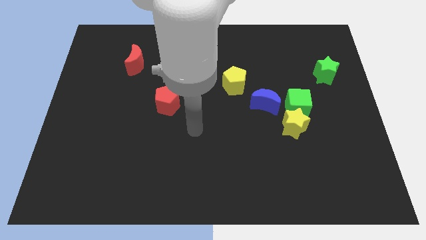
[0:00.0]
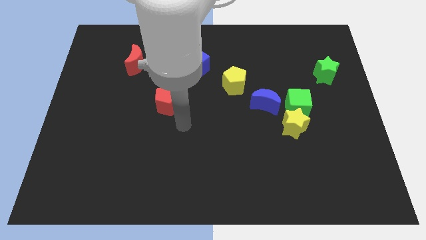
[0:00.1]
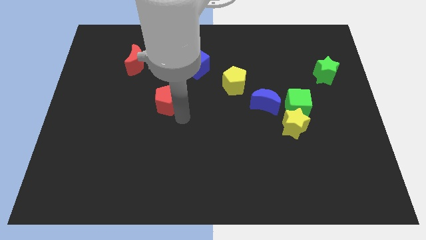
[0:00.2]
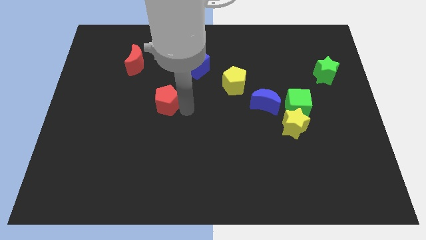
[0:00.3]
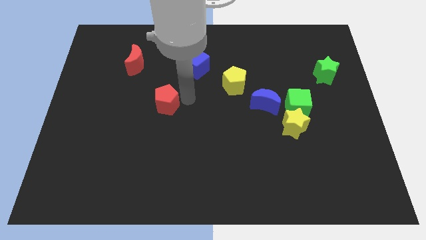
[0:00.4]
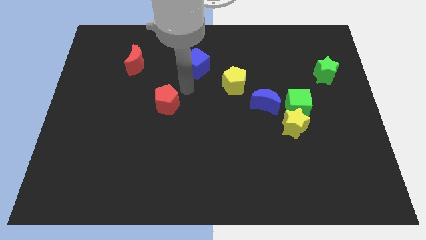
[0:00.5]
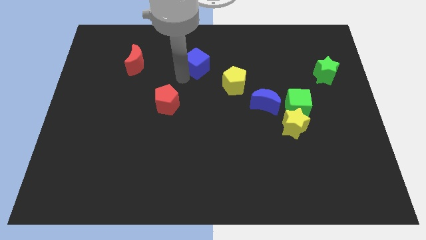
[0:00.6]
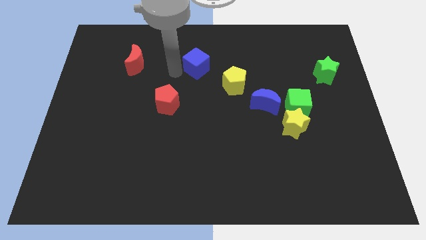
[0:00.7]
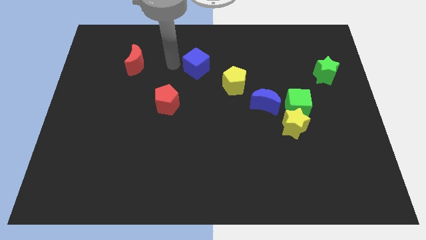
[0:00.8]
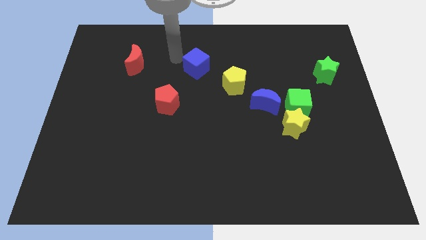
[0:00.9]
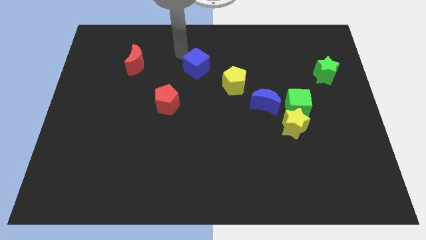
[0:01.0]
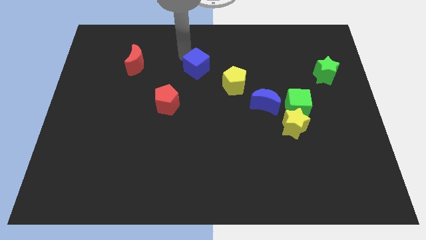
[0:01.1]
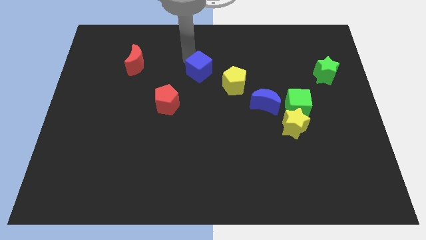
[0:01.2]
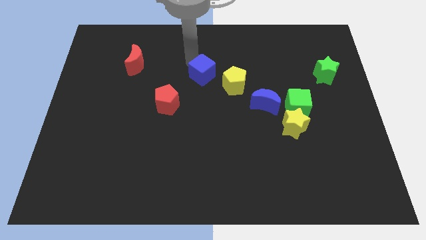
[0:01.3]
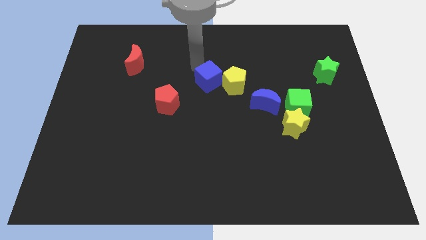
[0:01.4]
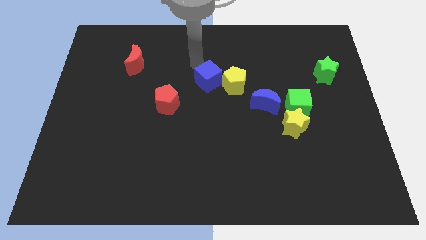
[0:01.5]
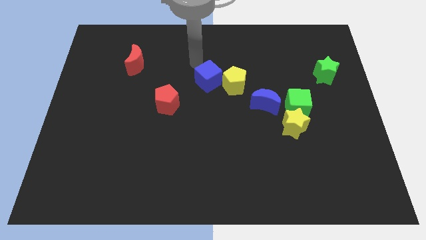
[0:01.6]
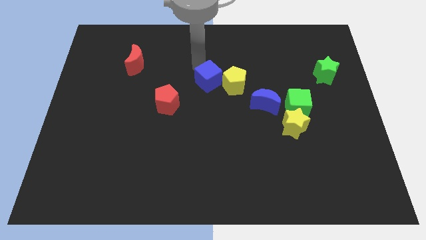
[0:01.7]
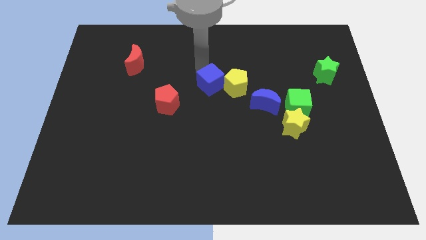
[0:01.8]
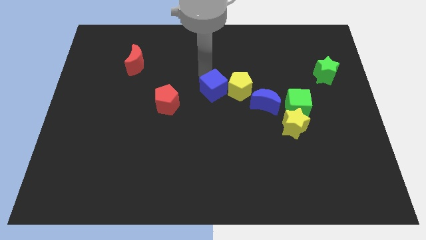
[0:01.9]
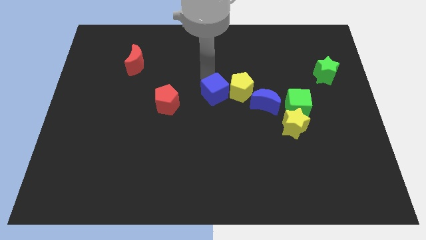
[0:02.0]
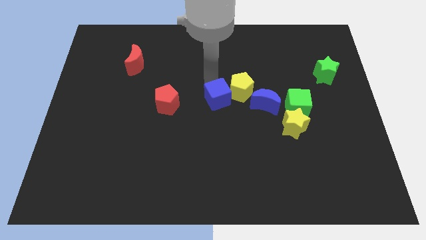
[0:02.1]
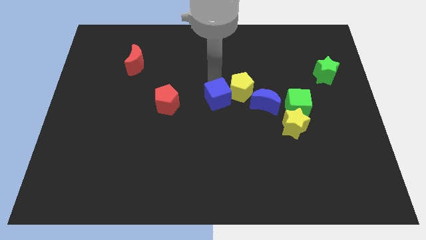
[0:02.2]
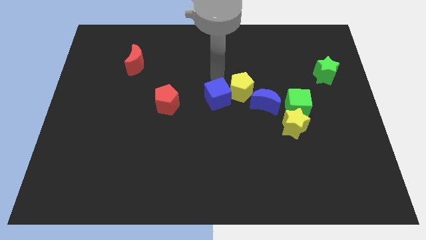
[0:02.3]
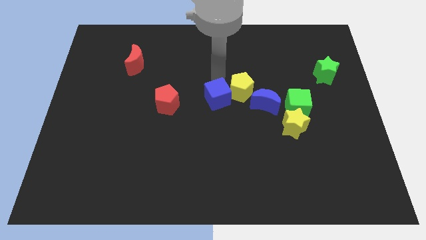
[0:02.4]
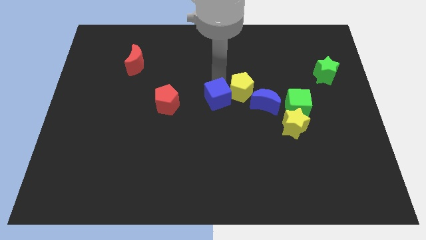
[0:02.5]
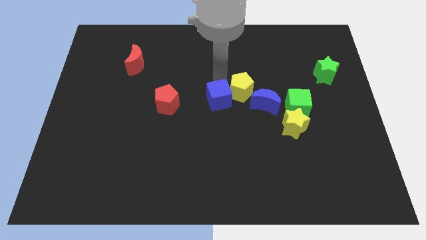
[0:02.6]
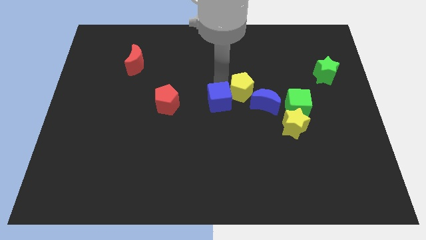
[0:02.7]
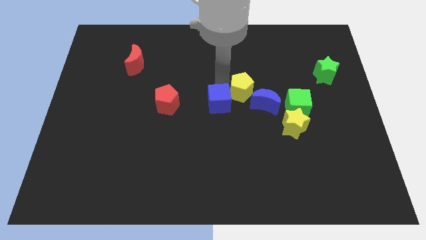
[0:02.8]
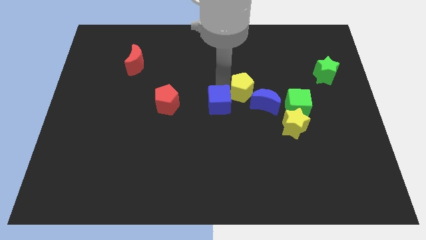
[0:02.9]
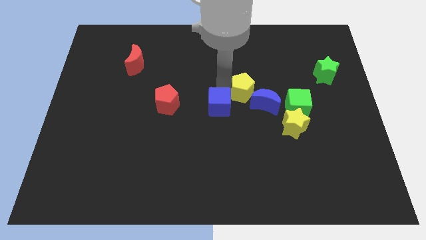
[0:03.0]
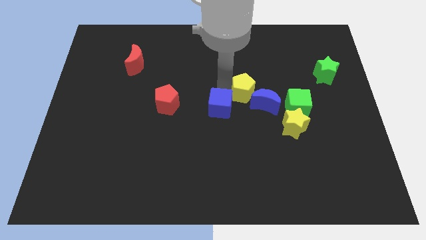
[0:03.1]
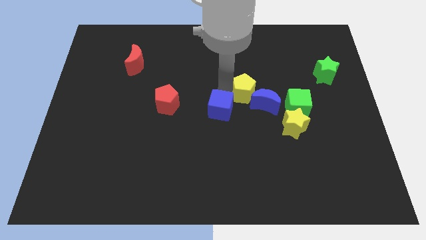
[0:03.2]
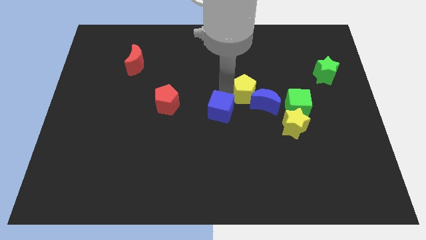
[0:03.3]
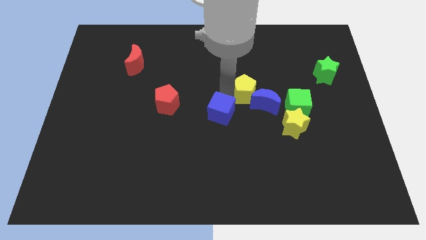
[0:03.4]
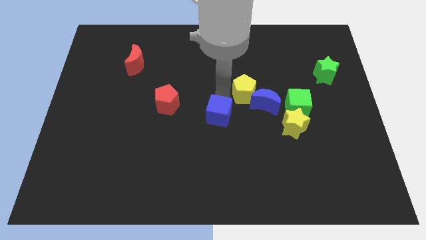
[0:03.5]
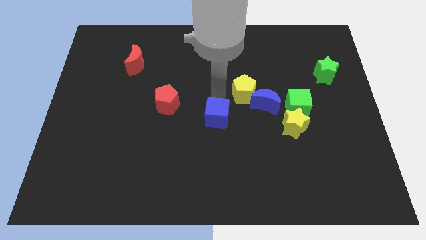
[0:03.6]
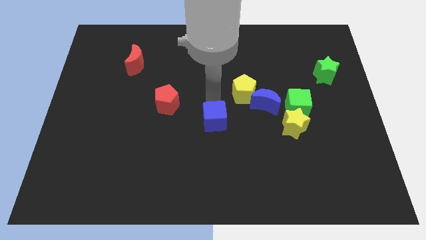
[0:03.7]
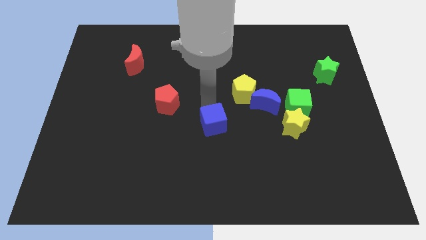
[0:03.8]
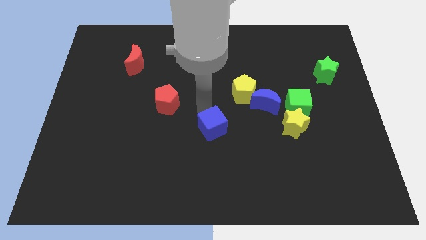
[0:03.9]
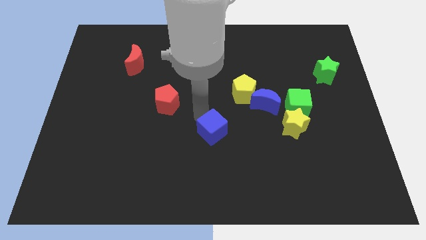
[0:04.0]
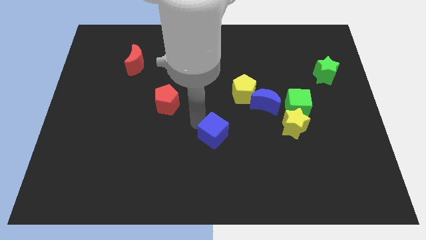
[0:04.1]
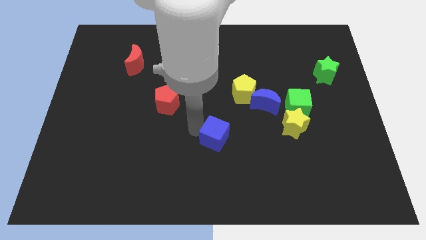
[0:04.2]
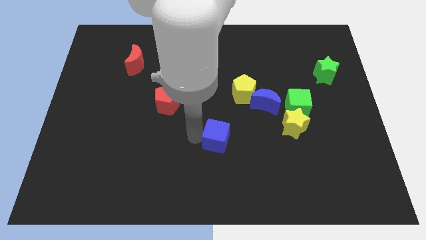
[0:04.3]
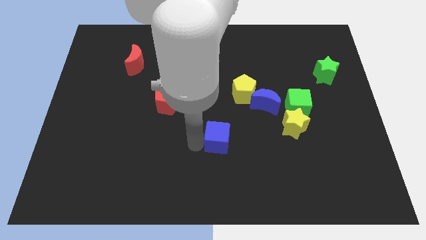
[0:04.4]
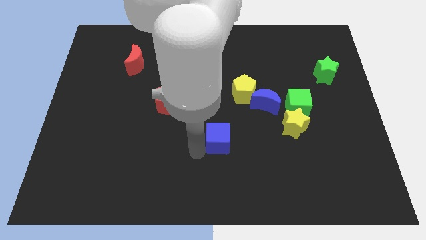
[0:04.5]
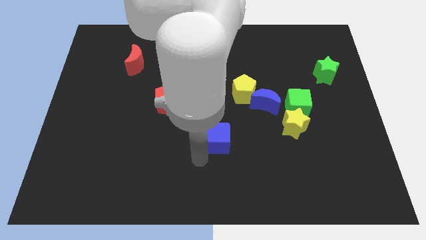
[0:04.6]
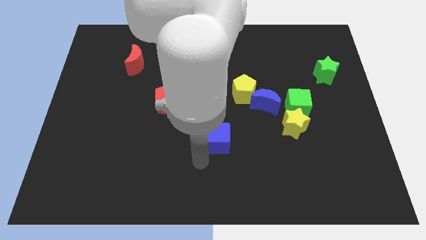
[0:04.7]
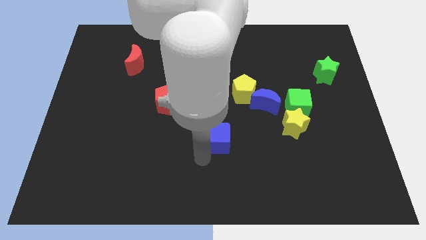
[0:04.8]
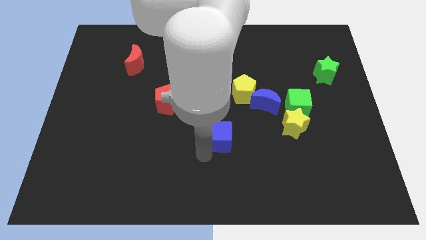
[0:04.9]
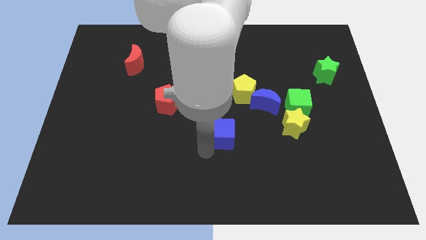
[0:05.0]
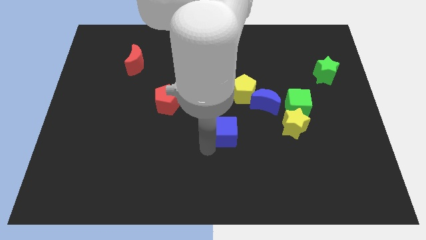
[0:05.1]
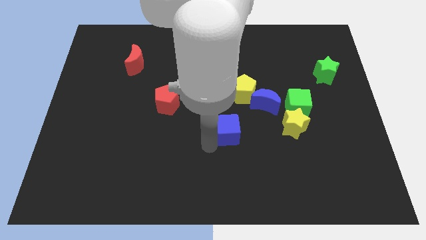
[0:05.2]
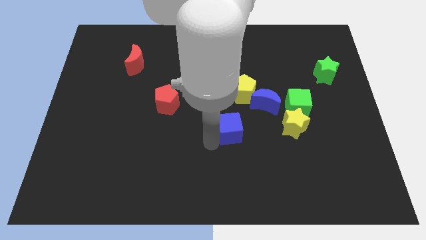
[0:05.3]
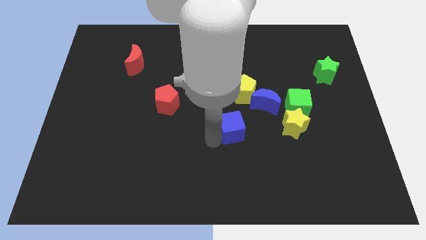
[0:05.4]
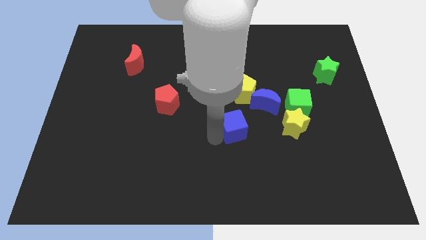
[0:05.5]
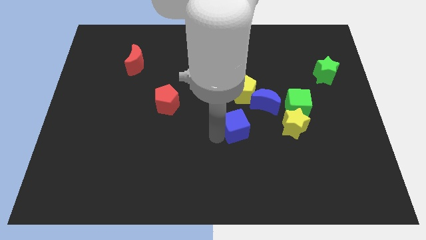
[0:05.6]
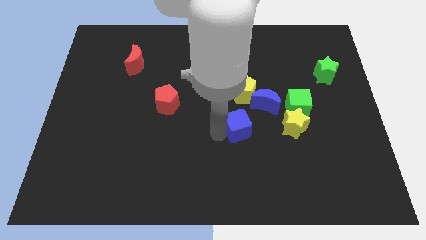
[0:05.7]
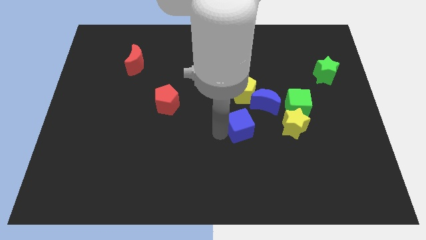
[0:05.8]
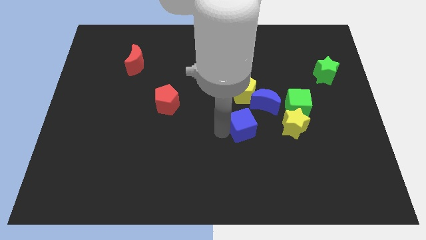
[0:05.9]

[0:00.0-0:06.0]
push the blue cube diagonally down and right

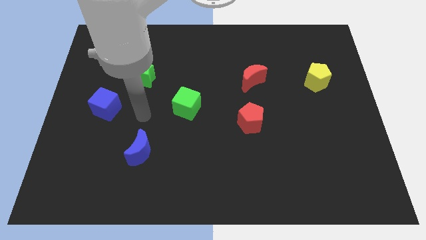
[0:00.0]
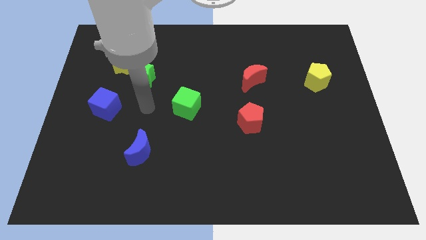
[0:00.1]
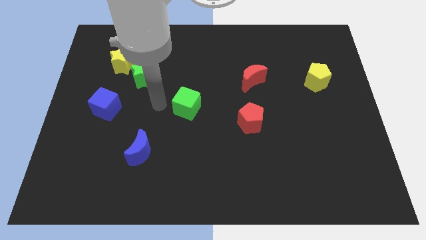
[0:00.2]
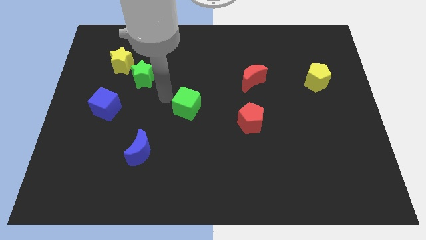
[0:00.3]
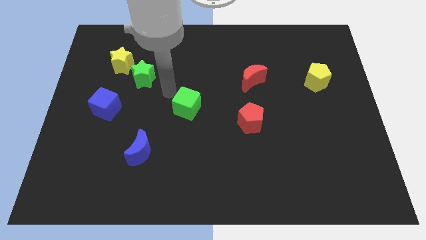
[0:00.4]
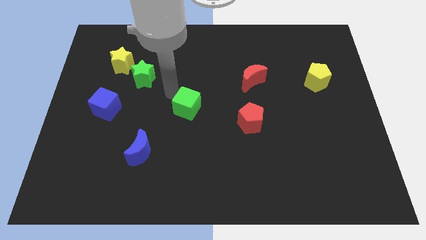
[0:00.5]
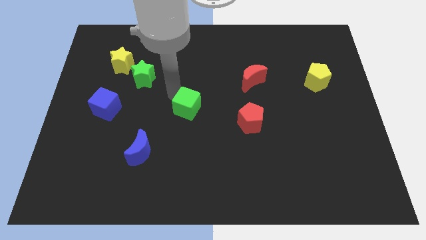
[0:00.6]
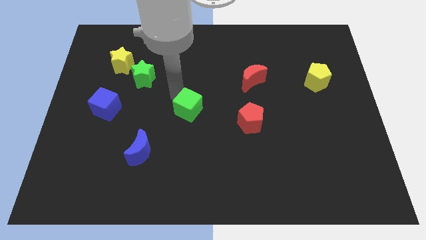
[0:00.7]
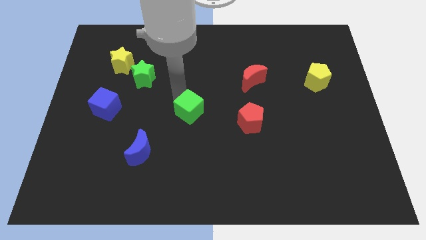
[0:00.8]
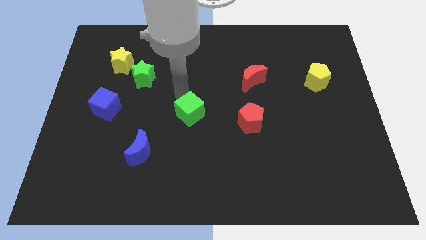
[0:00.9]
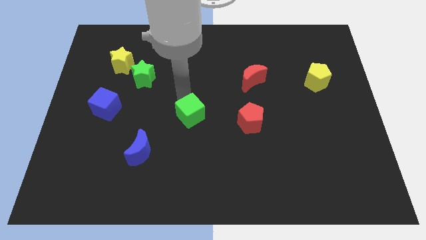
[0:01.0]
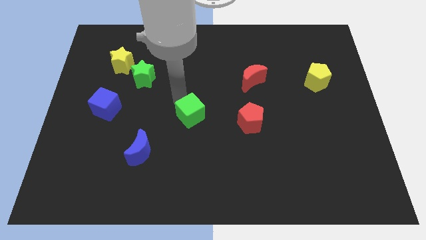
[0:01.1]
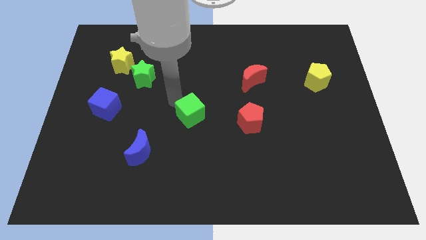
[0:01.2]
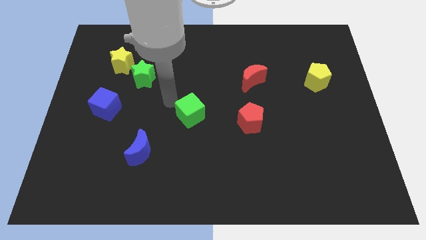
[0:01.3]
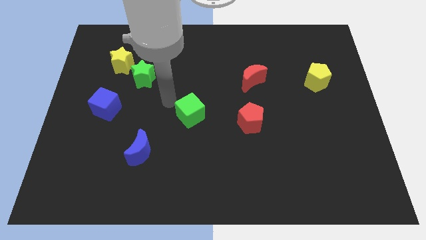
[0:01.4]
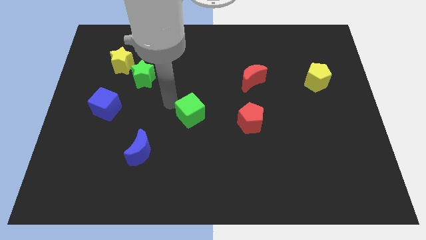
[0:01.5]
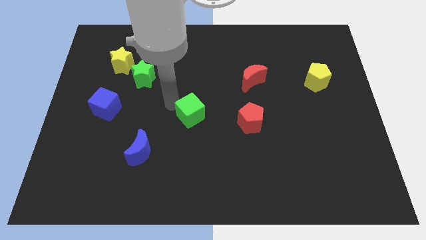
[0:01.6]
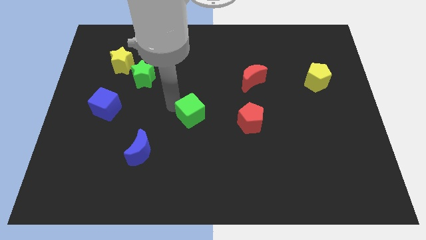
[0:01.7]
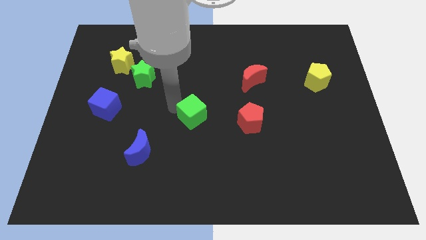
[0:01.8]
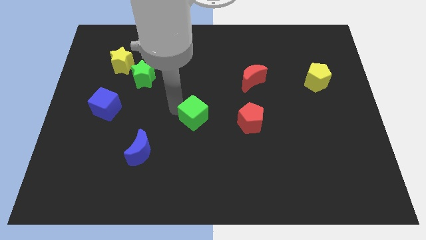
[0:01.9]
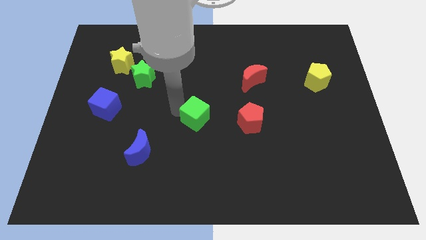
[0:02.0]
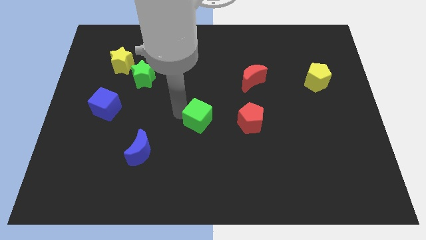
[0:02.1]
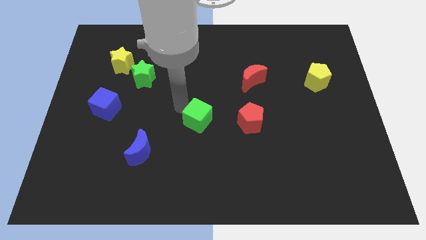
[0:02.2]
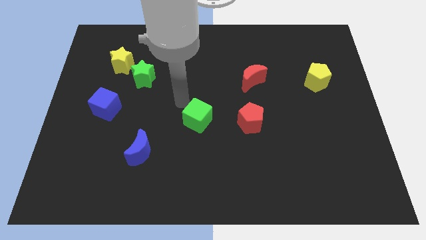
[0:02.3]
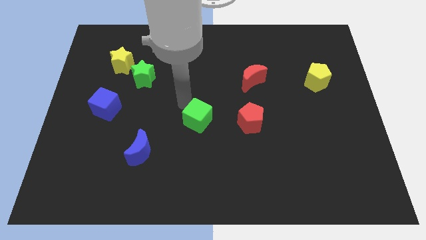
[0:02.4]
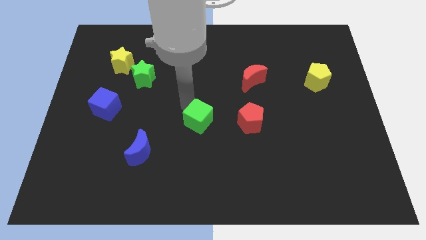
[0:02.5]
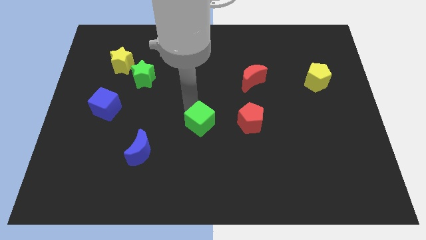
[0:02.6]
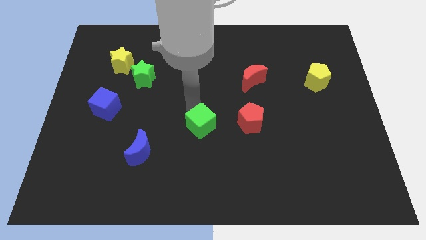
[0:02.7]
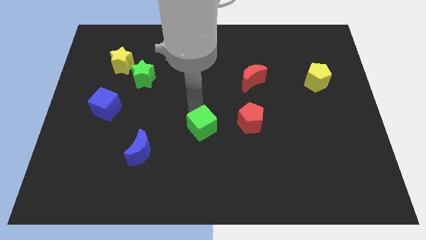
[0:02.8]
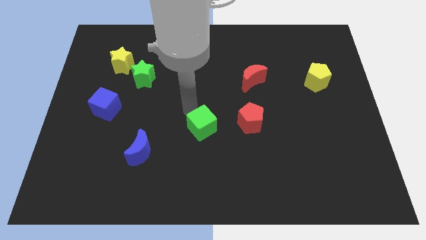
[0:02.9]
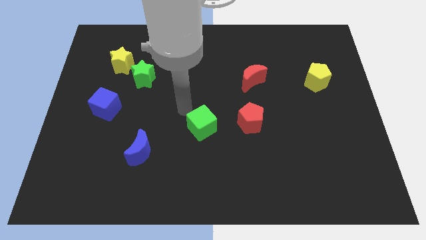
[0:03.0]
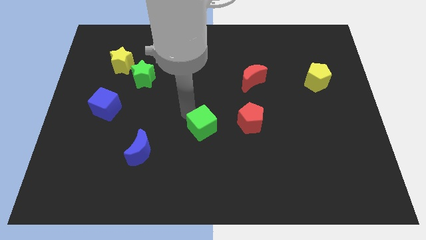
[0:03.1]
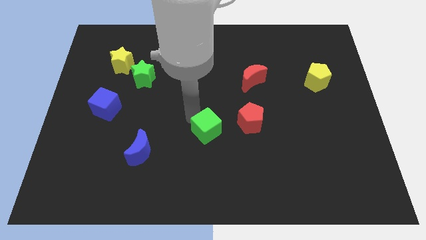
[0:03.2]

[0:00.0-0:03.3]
slide the green cube downwards and then to the right slightly
